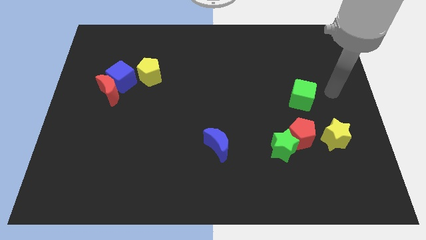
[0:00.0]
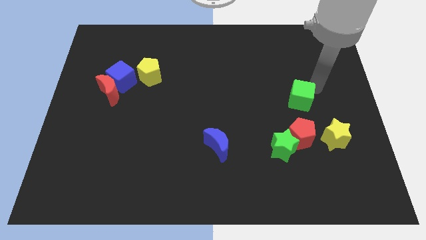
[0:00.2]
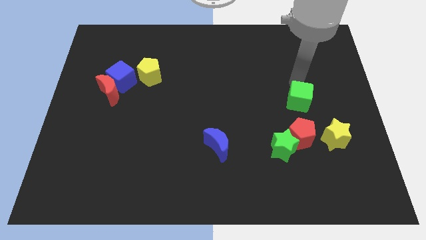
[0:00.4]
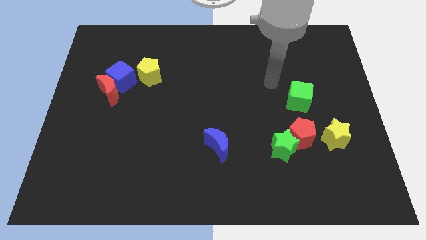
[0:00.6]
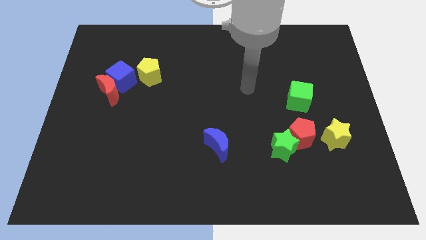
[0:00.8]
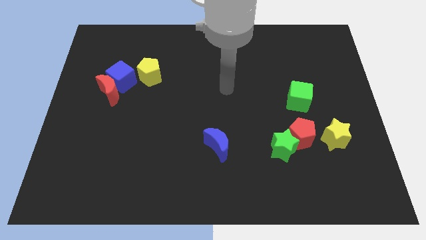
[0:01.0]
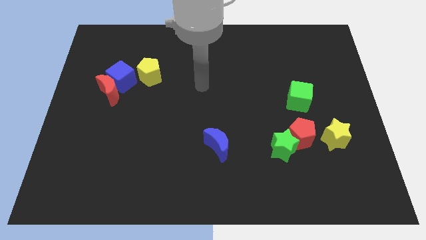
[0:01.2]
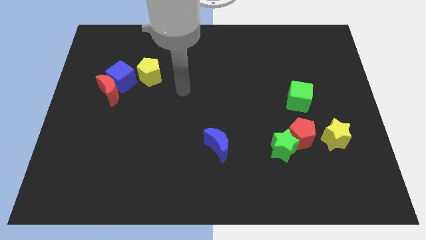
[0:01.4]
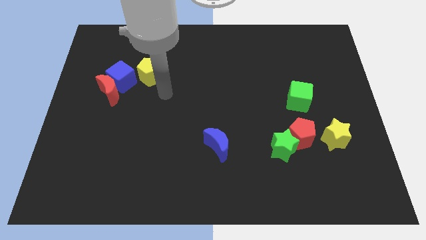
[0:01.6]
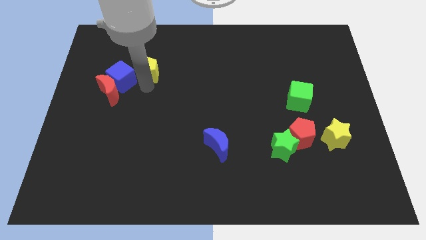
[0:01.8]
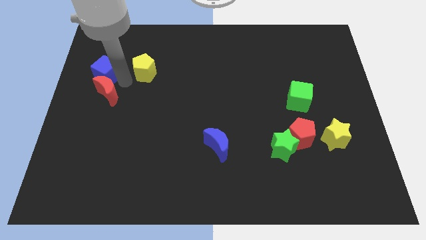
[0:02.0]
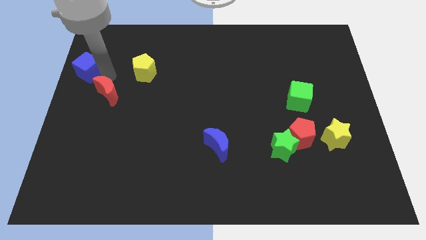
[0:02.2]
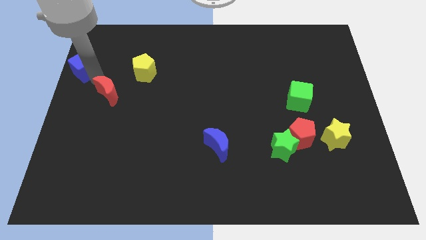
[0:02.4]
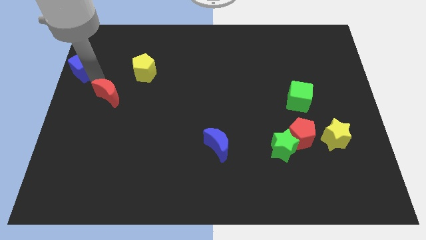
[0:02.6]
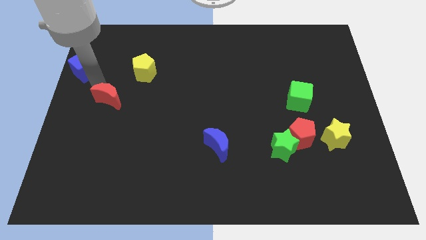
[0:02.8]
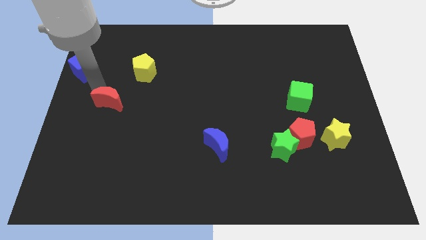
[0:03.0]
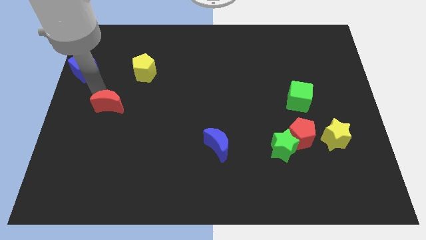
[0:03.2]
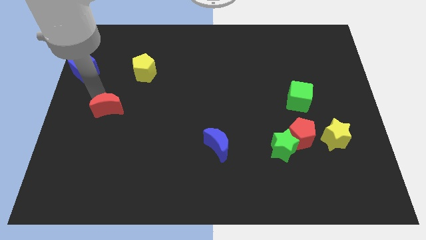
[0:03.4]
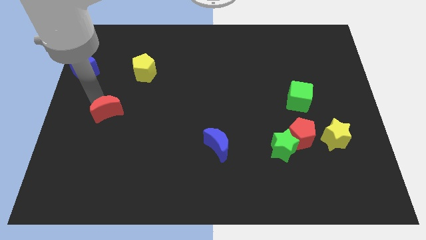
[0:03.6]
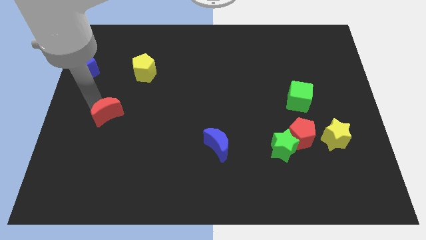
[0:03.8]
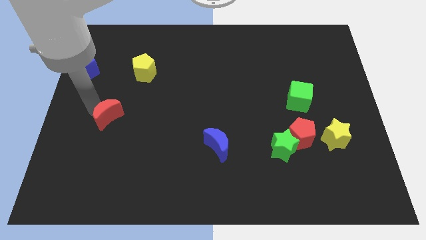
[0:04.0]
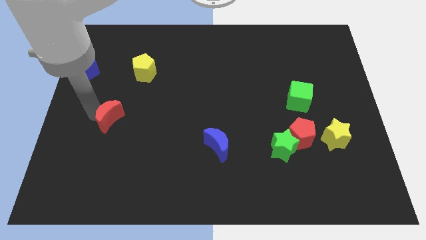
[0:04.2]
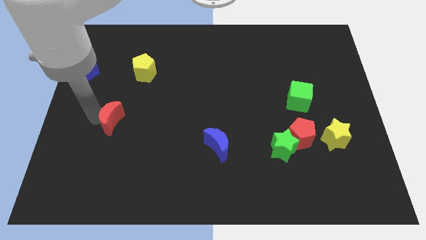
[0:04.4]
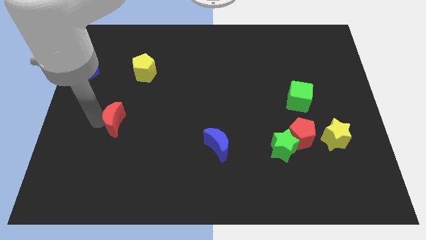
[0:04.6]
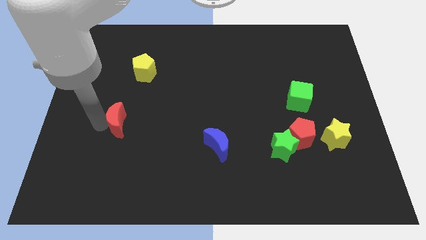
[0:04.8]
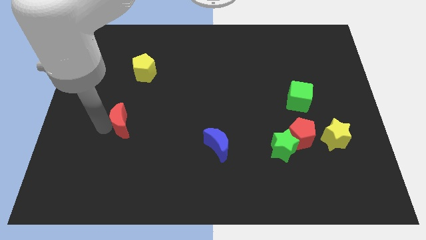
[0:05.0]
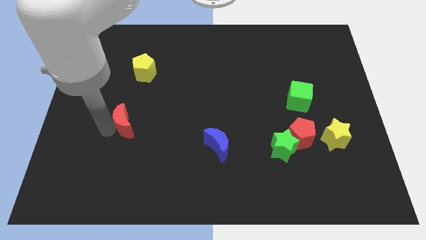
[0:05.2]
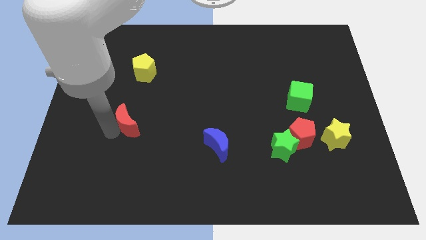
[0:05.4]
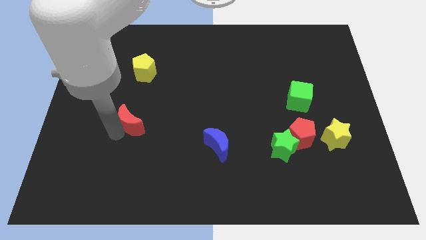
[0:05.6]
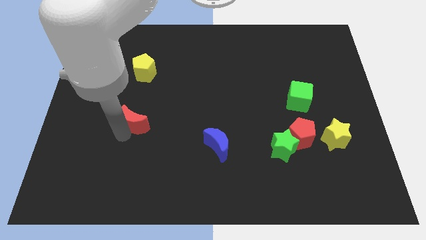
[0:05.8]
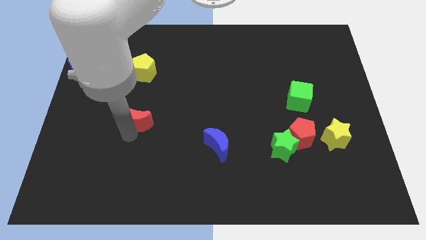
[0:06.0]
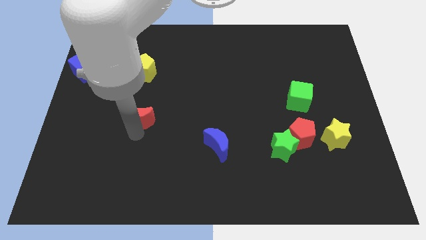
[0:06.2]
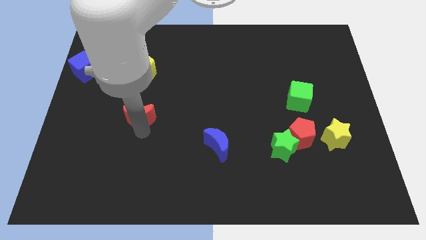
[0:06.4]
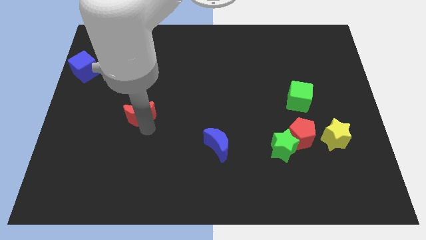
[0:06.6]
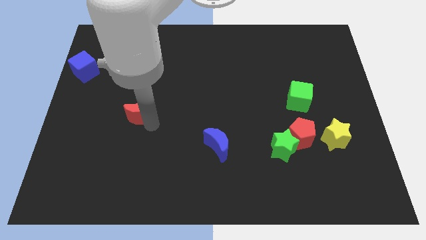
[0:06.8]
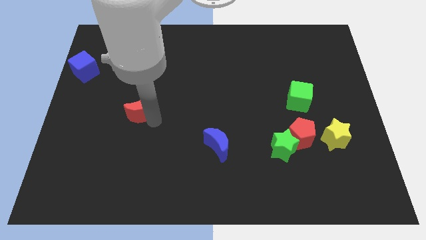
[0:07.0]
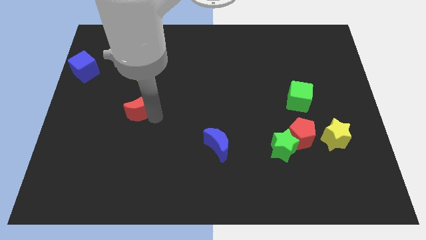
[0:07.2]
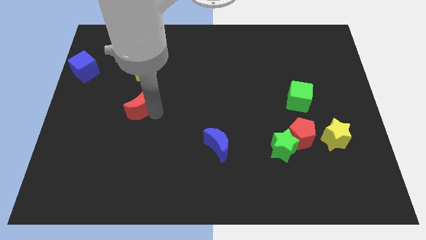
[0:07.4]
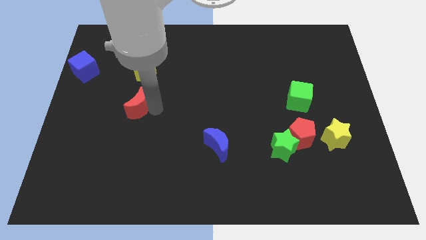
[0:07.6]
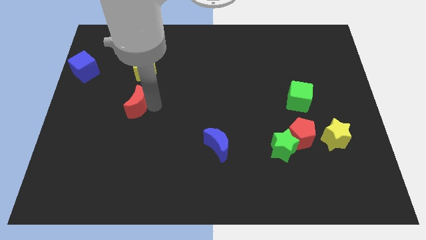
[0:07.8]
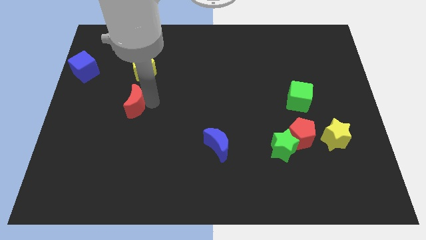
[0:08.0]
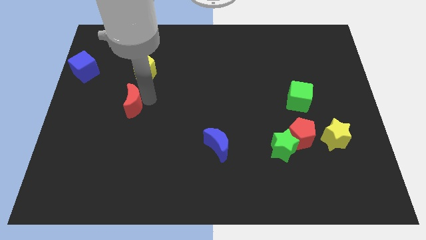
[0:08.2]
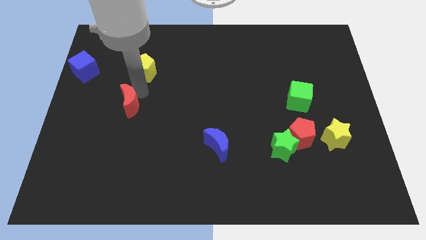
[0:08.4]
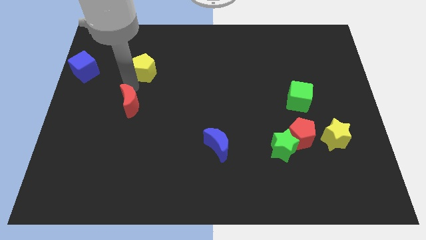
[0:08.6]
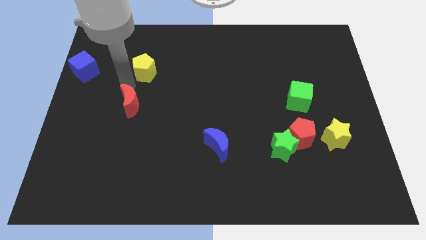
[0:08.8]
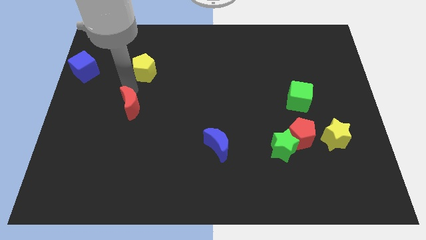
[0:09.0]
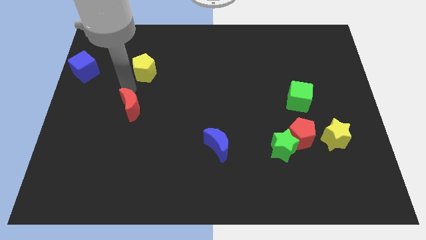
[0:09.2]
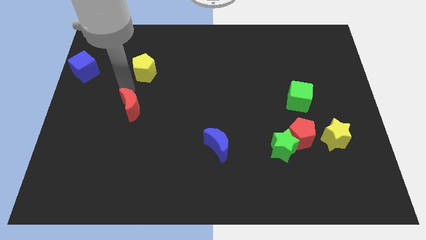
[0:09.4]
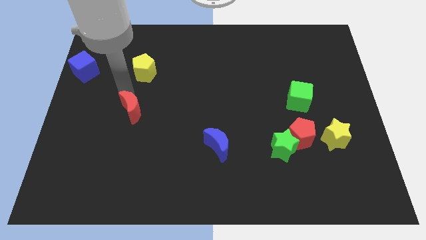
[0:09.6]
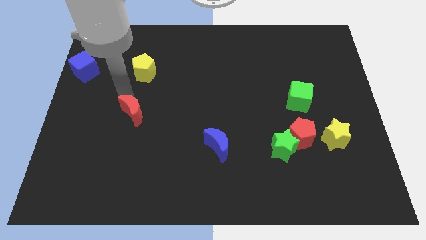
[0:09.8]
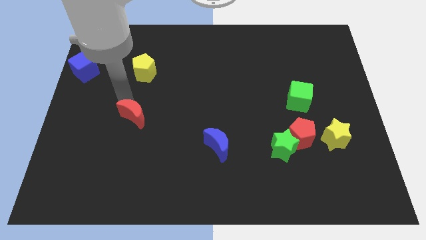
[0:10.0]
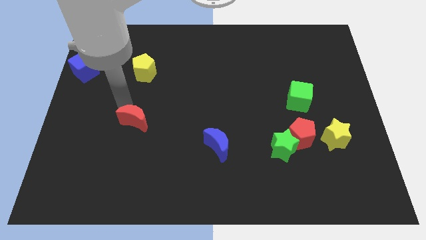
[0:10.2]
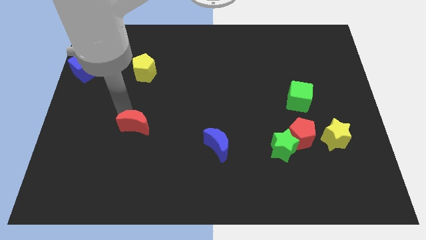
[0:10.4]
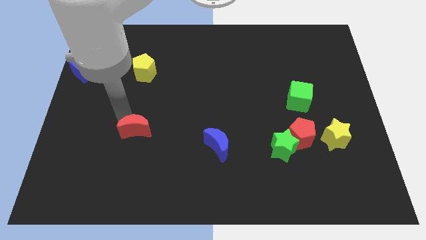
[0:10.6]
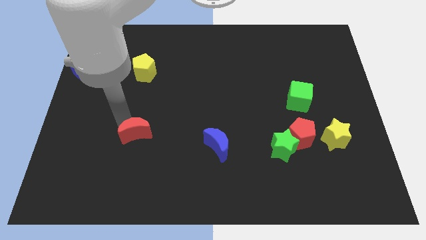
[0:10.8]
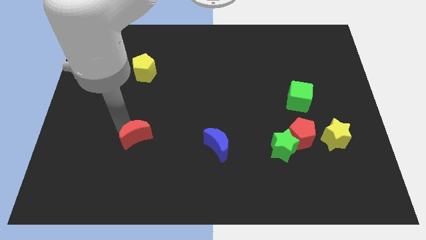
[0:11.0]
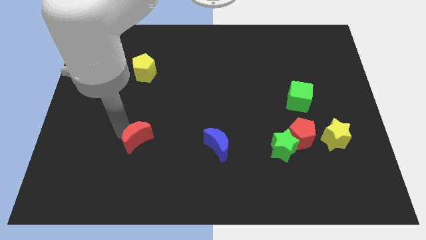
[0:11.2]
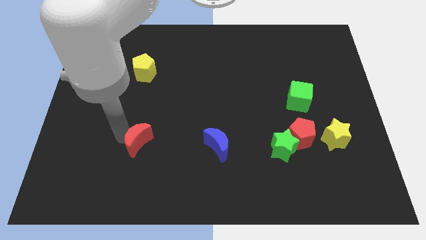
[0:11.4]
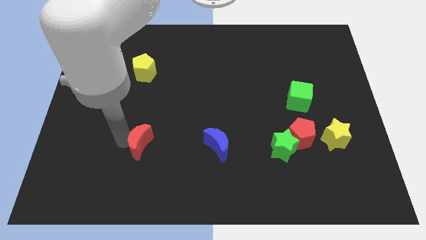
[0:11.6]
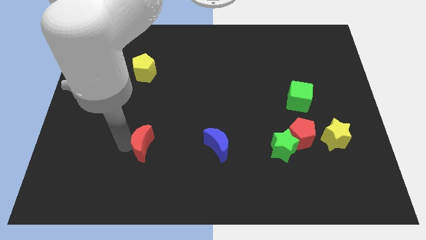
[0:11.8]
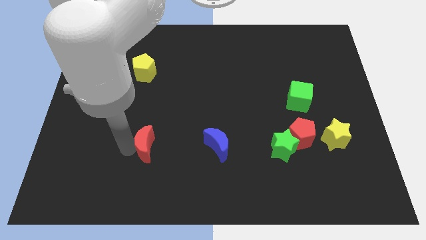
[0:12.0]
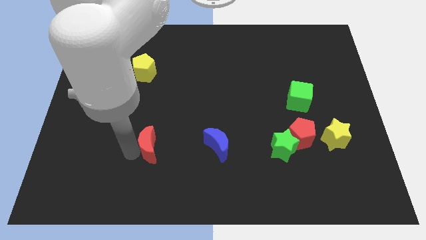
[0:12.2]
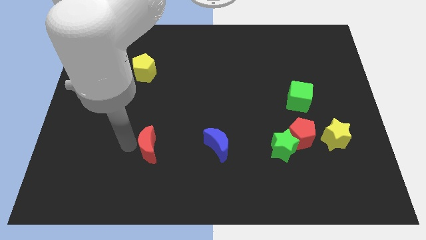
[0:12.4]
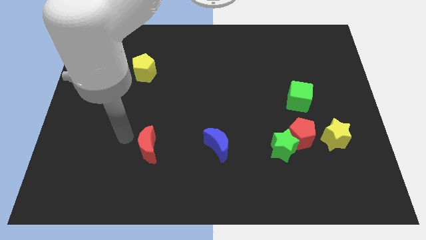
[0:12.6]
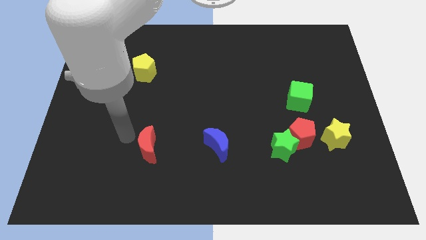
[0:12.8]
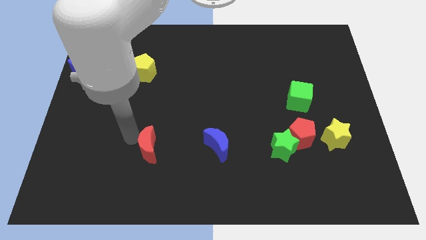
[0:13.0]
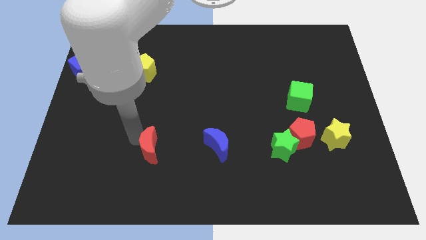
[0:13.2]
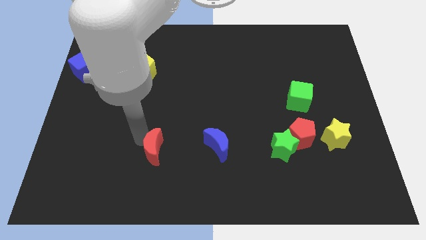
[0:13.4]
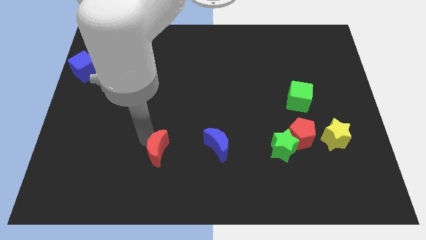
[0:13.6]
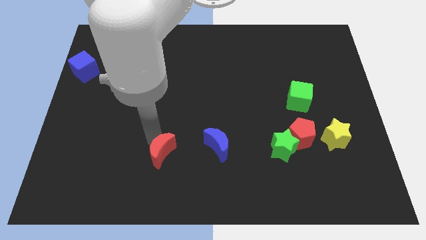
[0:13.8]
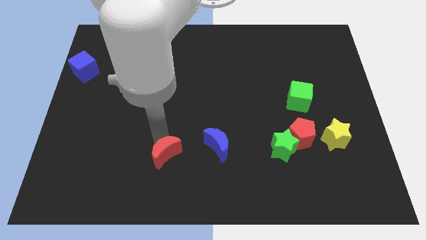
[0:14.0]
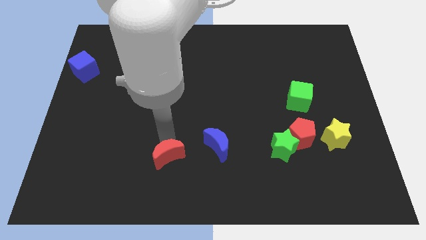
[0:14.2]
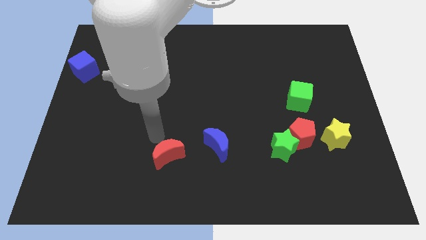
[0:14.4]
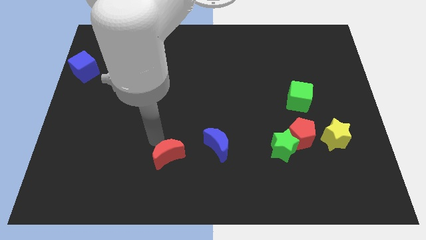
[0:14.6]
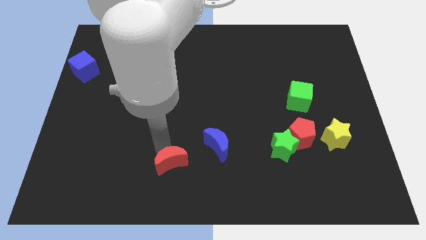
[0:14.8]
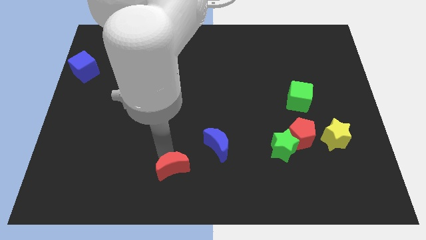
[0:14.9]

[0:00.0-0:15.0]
slide the red moon to the bottom side
